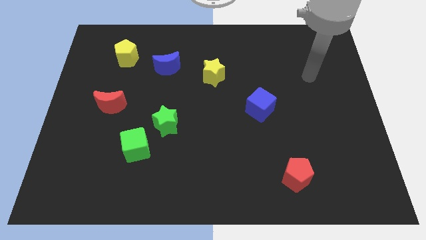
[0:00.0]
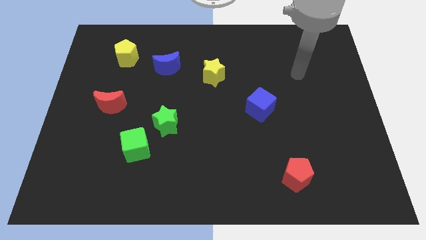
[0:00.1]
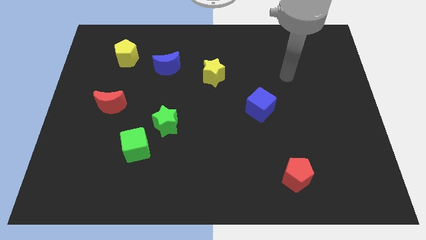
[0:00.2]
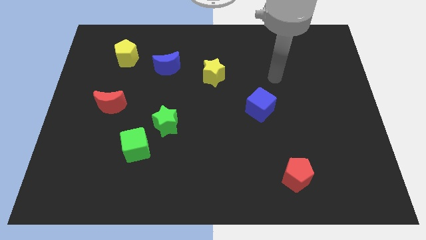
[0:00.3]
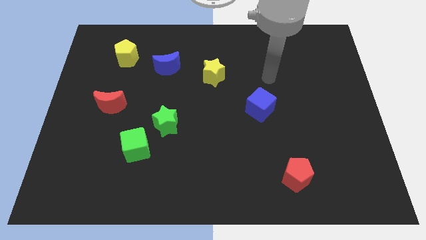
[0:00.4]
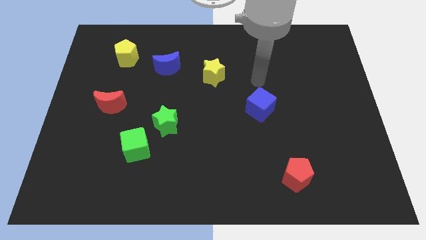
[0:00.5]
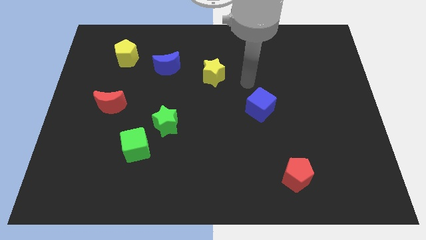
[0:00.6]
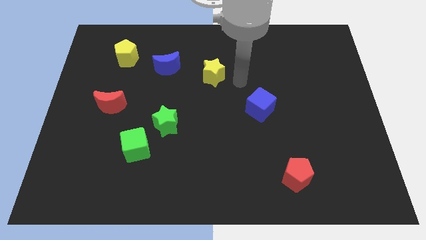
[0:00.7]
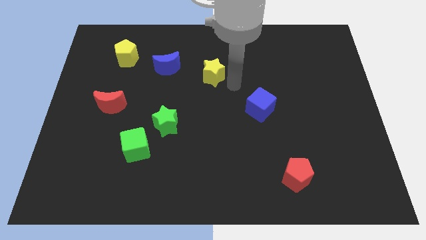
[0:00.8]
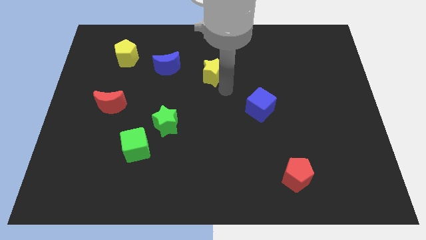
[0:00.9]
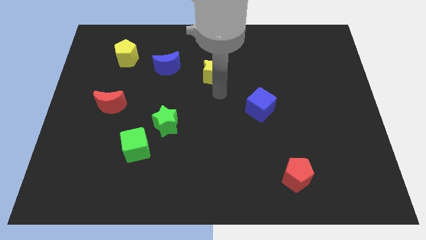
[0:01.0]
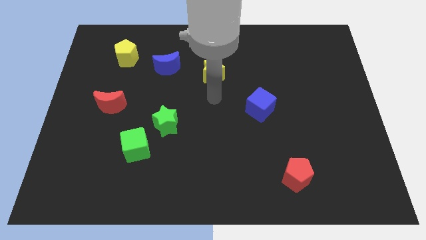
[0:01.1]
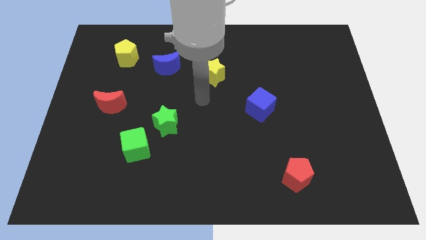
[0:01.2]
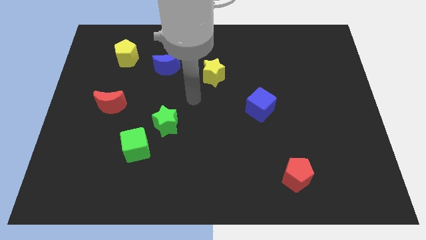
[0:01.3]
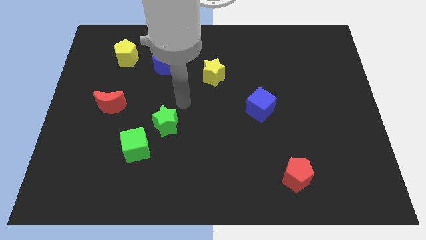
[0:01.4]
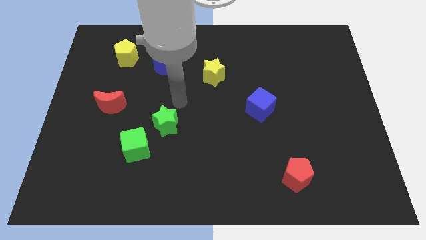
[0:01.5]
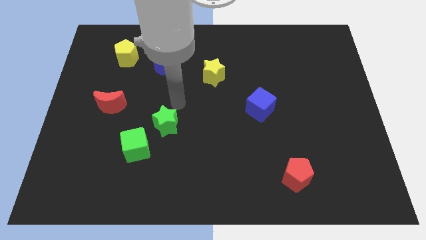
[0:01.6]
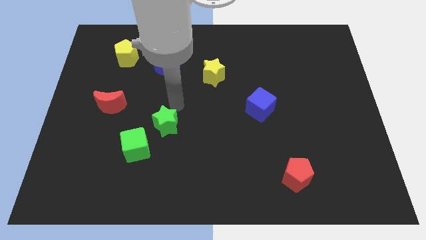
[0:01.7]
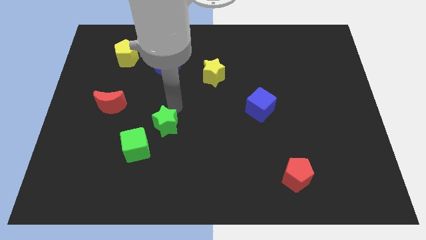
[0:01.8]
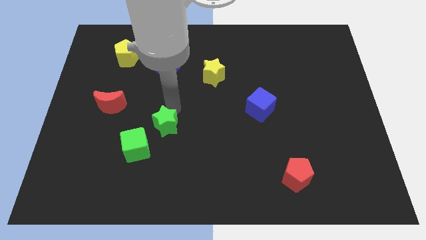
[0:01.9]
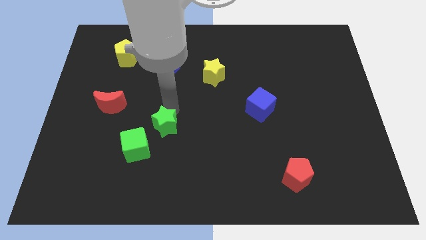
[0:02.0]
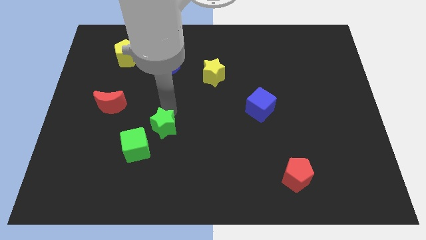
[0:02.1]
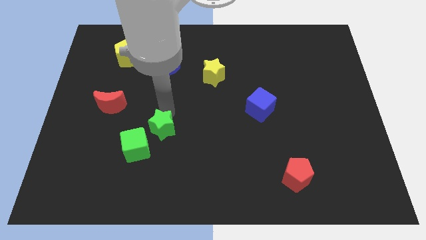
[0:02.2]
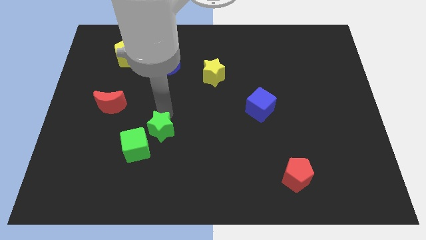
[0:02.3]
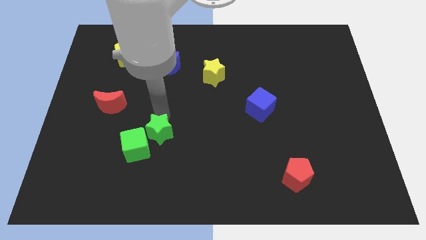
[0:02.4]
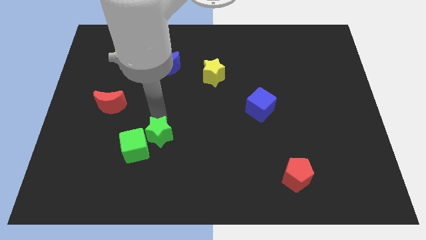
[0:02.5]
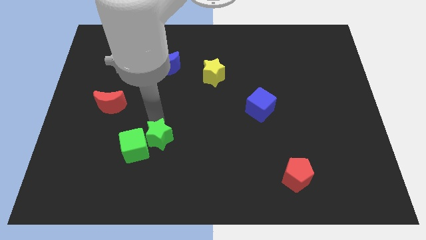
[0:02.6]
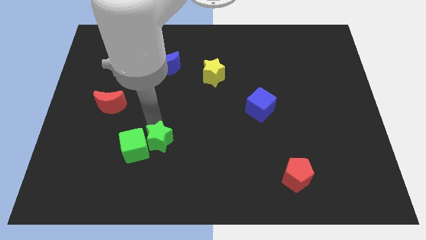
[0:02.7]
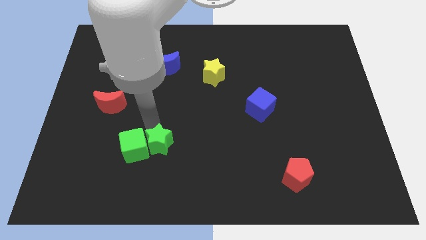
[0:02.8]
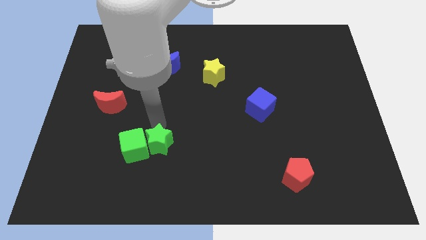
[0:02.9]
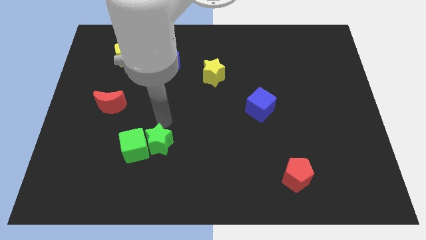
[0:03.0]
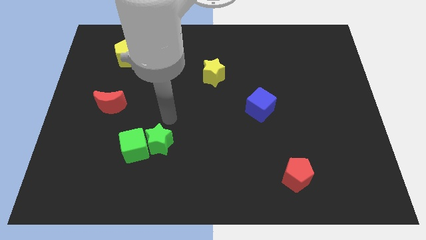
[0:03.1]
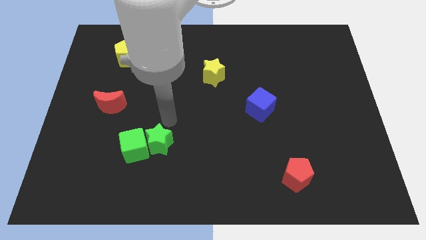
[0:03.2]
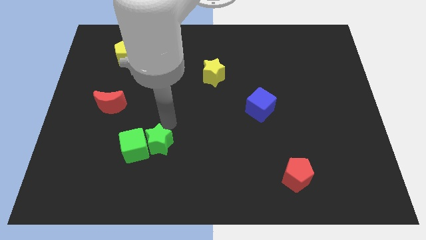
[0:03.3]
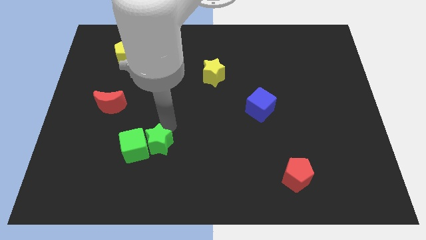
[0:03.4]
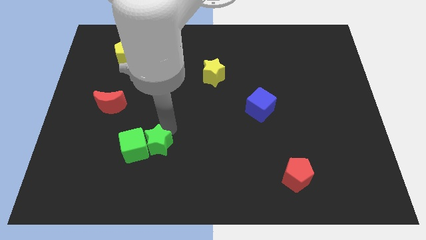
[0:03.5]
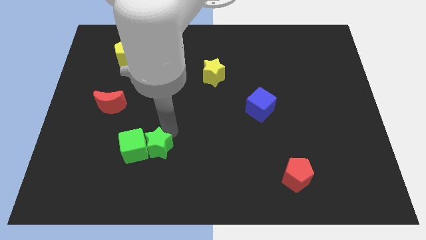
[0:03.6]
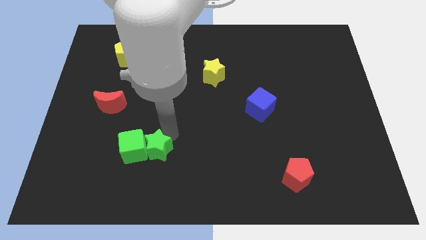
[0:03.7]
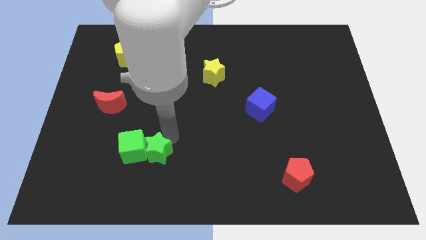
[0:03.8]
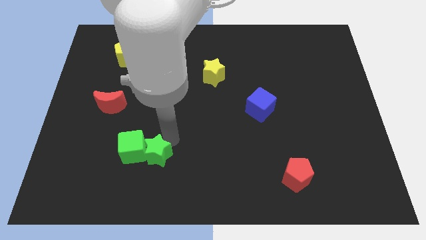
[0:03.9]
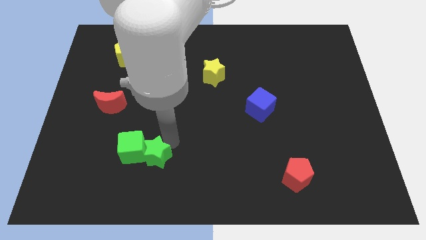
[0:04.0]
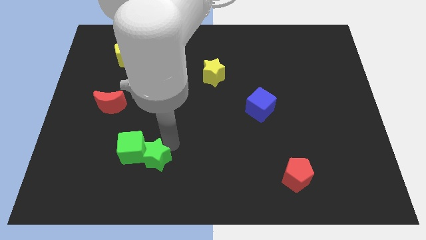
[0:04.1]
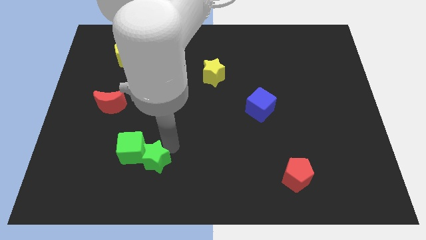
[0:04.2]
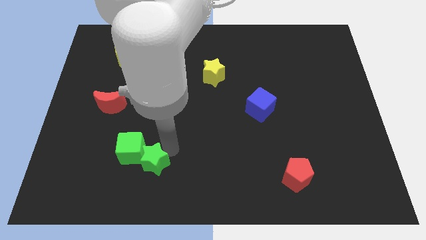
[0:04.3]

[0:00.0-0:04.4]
slightly slide the green star downwards and left diagonally

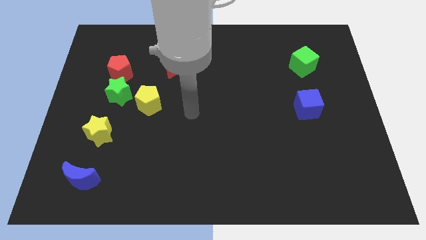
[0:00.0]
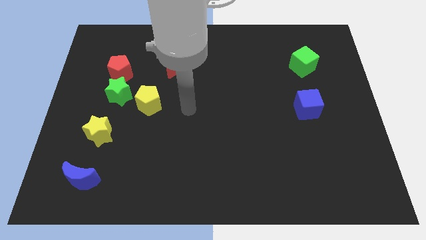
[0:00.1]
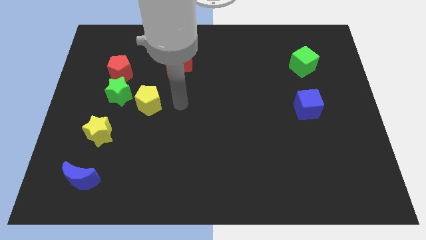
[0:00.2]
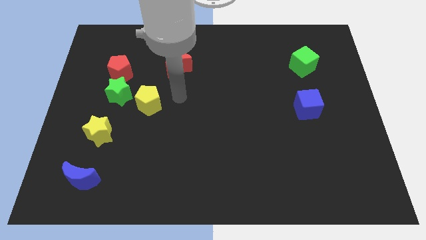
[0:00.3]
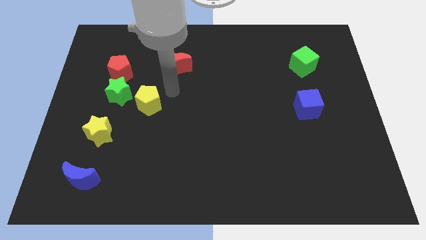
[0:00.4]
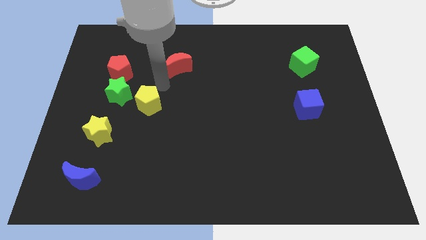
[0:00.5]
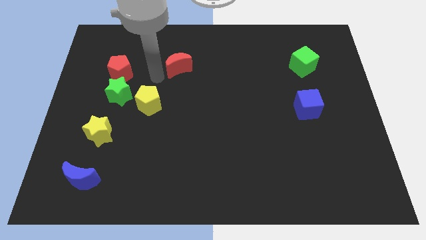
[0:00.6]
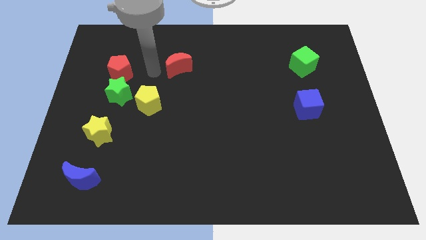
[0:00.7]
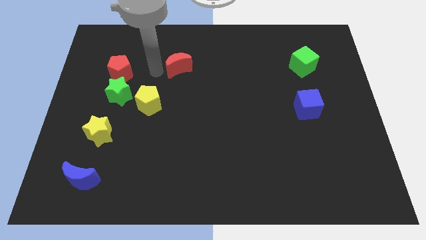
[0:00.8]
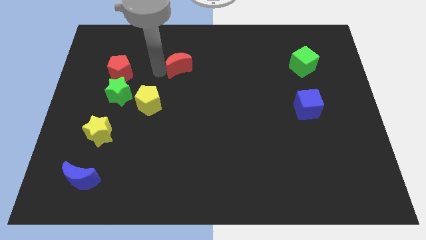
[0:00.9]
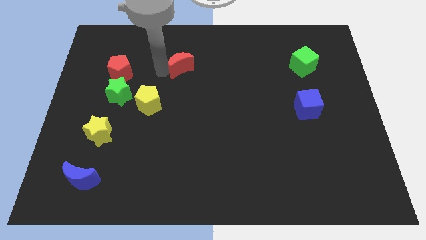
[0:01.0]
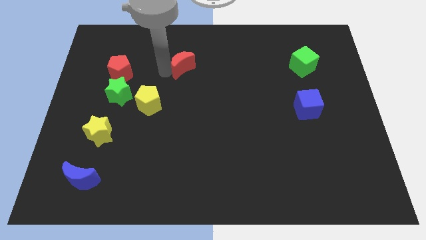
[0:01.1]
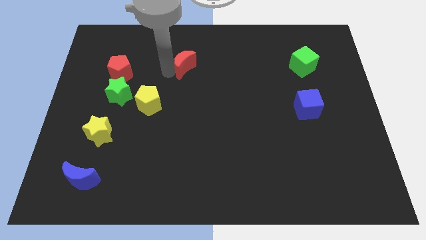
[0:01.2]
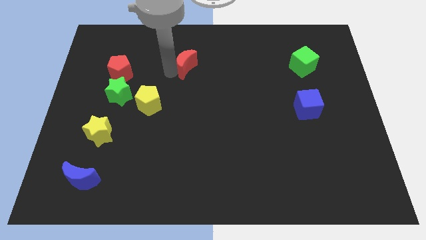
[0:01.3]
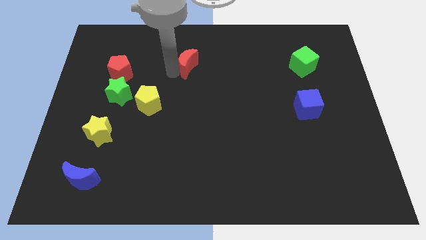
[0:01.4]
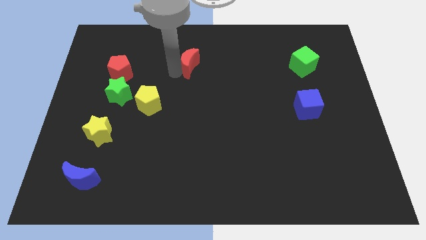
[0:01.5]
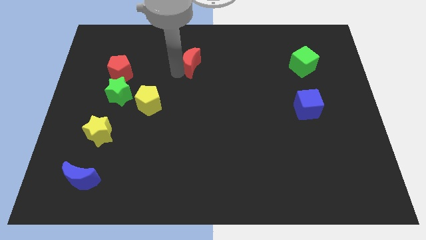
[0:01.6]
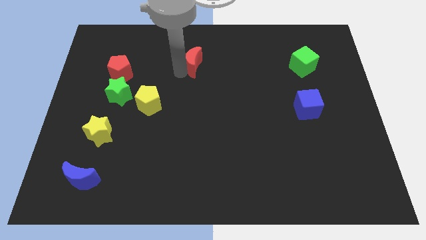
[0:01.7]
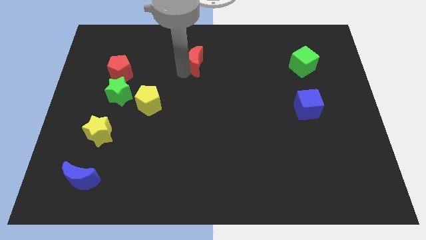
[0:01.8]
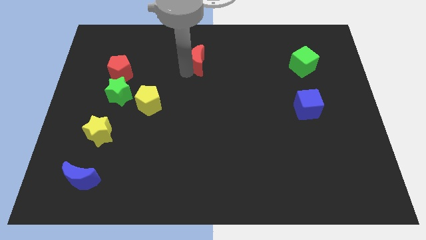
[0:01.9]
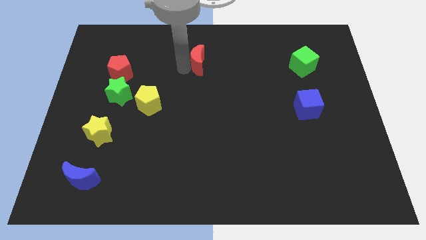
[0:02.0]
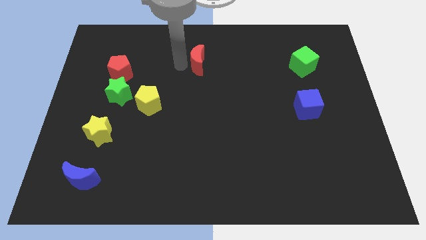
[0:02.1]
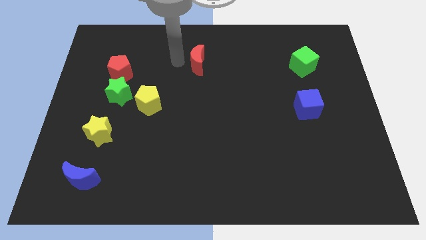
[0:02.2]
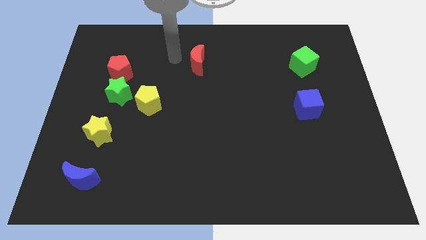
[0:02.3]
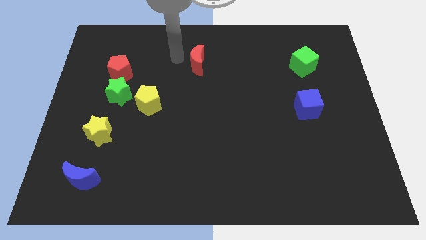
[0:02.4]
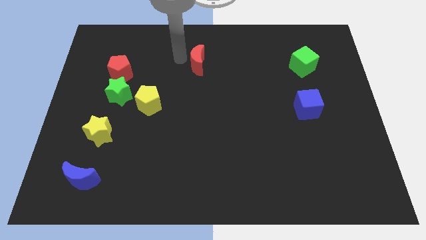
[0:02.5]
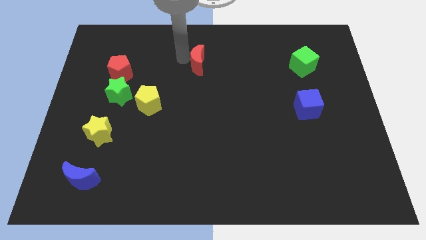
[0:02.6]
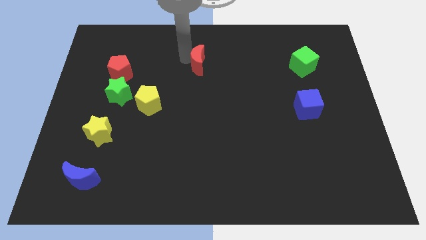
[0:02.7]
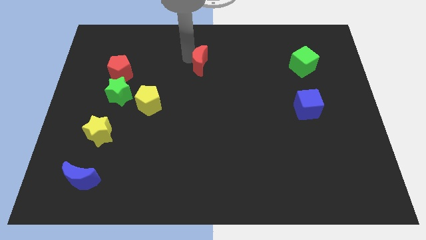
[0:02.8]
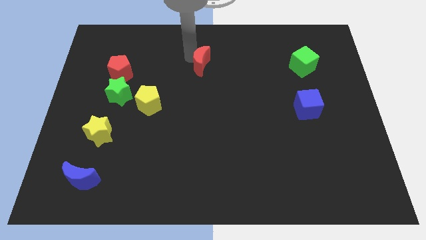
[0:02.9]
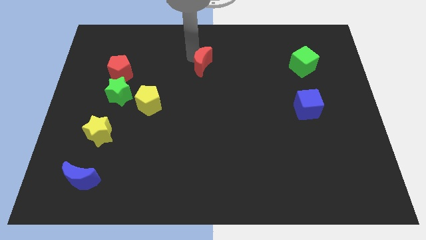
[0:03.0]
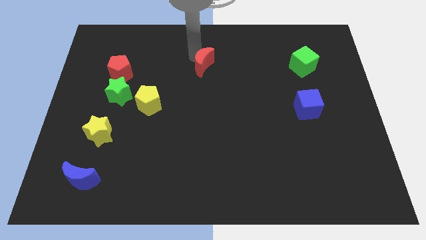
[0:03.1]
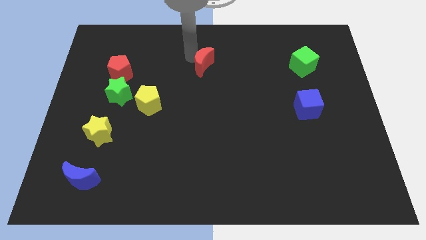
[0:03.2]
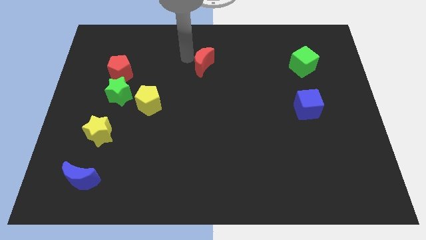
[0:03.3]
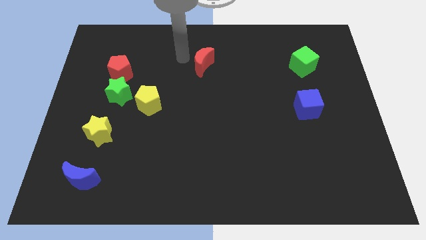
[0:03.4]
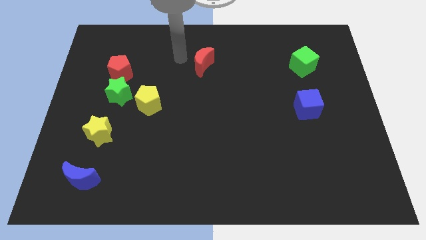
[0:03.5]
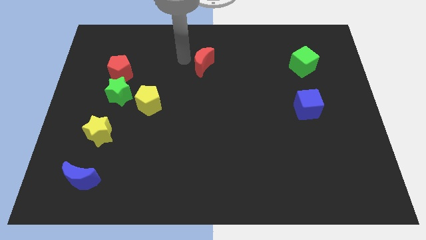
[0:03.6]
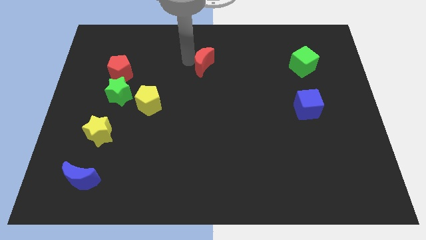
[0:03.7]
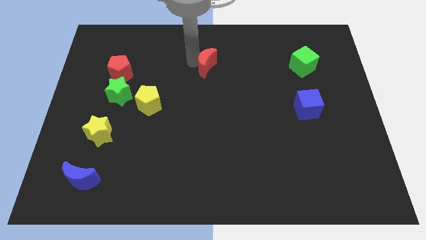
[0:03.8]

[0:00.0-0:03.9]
slide the red moon to the right somewhat
